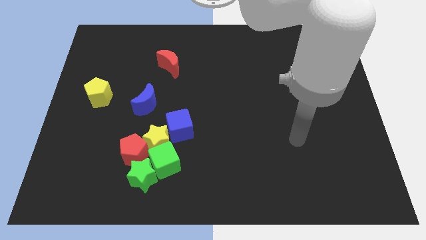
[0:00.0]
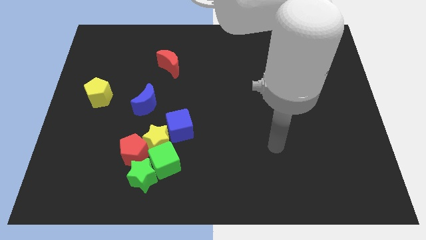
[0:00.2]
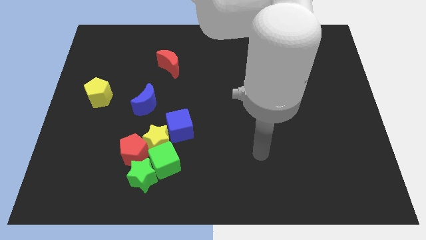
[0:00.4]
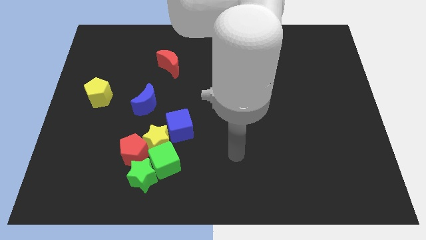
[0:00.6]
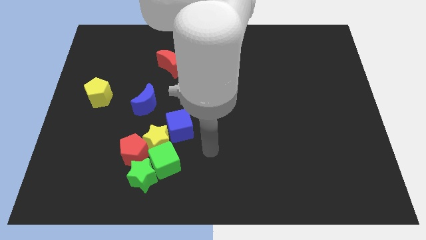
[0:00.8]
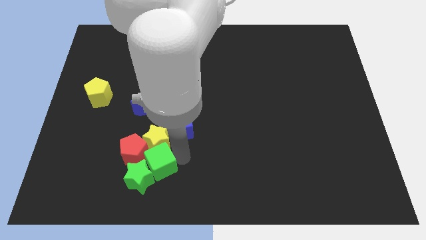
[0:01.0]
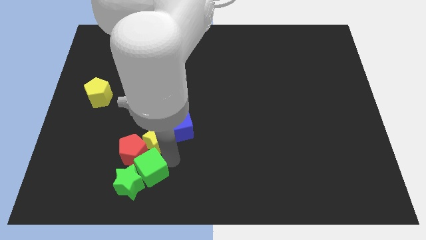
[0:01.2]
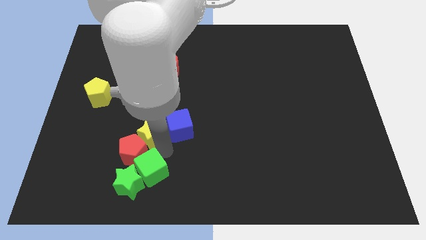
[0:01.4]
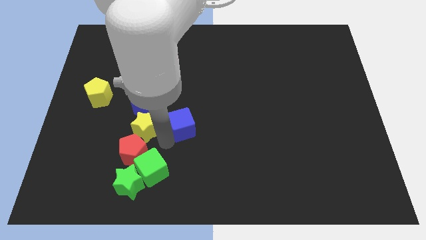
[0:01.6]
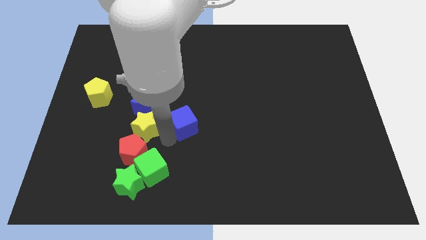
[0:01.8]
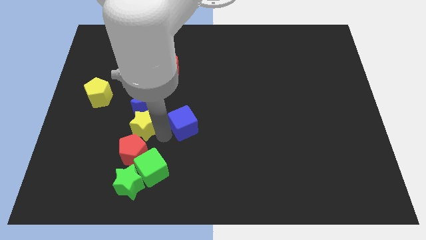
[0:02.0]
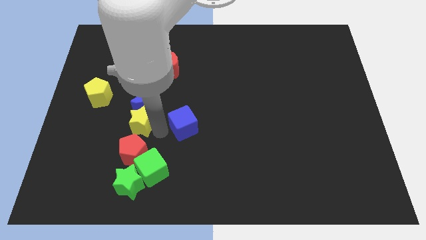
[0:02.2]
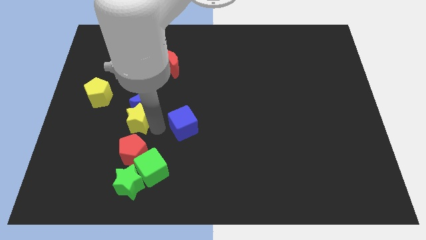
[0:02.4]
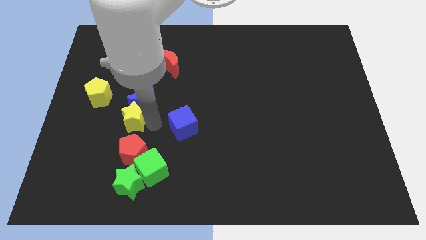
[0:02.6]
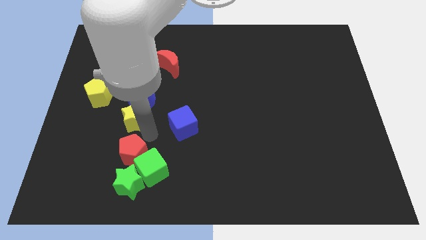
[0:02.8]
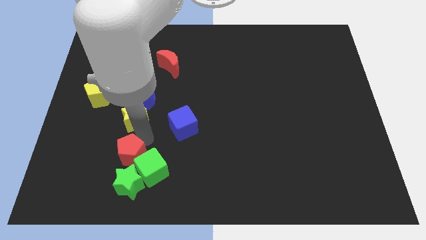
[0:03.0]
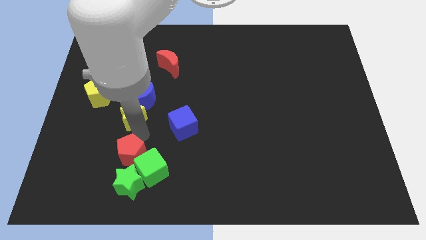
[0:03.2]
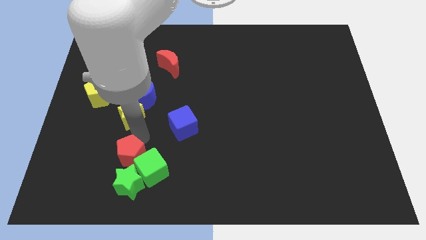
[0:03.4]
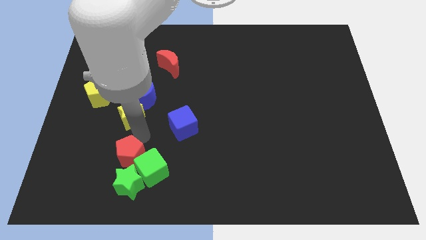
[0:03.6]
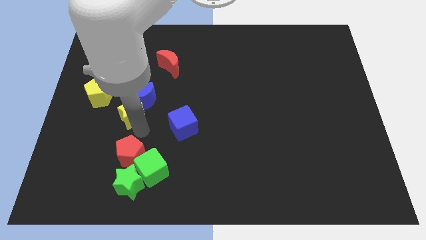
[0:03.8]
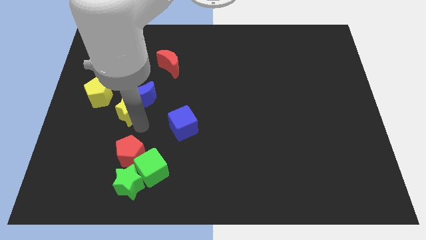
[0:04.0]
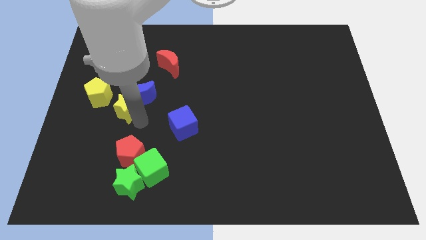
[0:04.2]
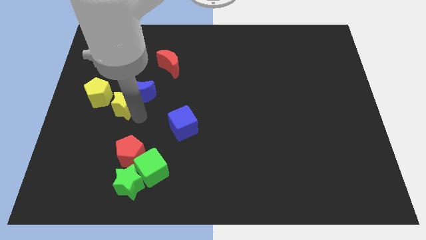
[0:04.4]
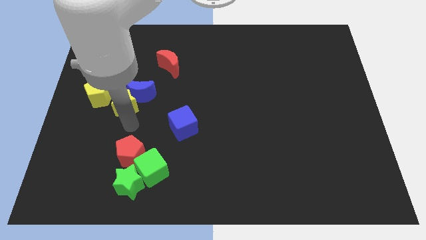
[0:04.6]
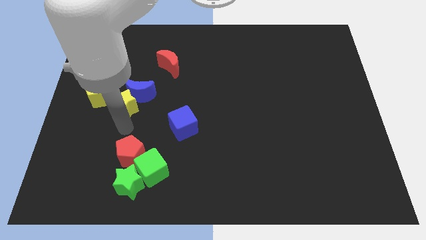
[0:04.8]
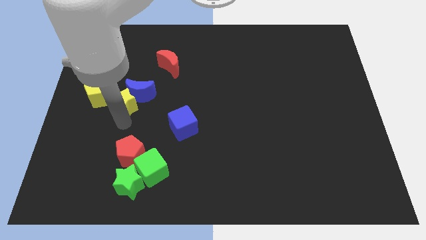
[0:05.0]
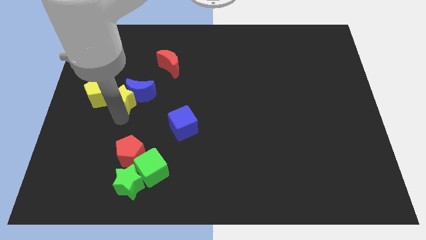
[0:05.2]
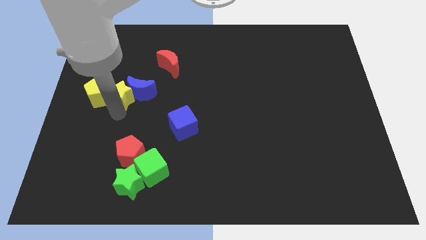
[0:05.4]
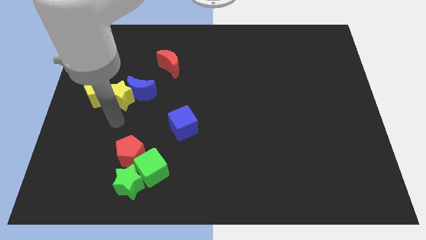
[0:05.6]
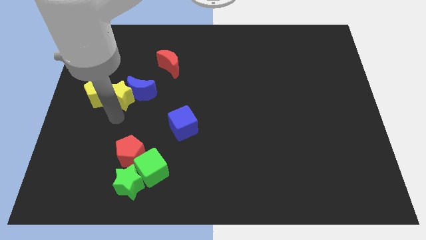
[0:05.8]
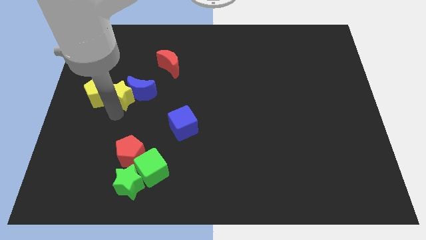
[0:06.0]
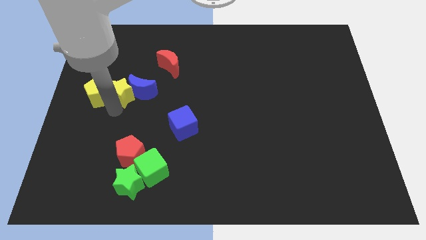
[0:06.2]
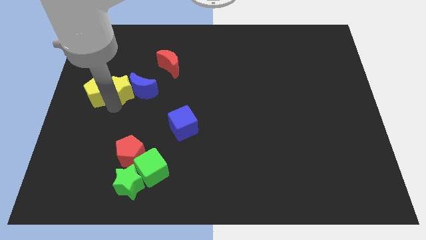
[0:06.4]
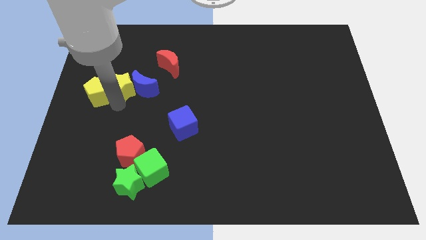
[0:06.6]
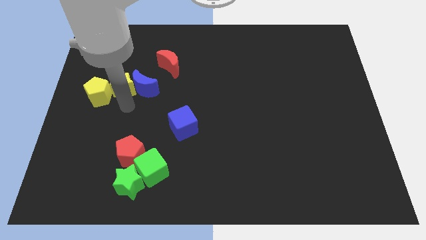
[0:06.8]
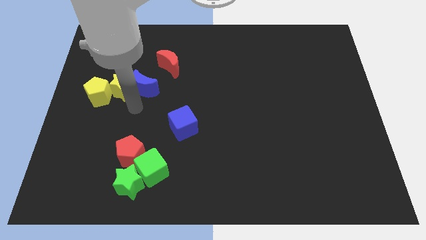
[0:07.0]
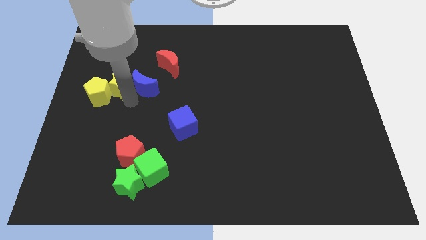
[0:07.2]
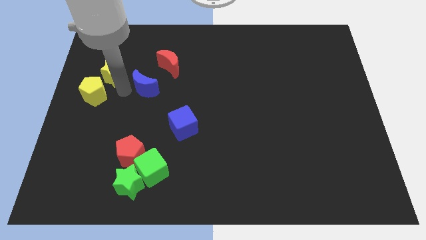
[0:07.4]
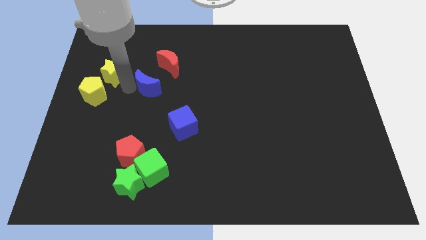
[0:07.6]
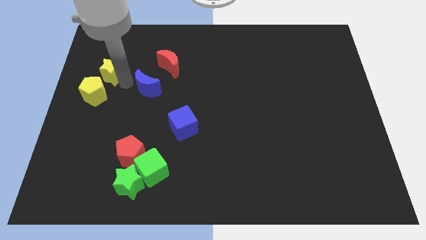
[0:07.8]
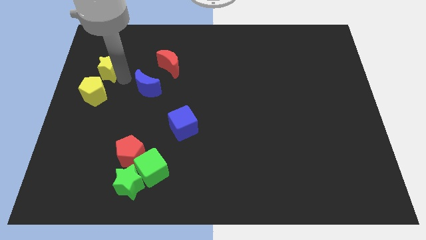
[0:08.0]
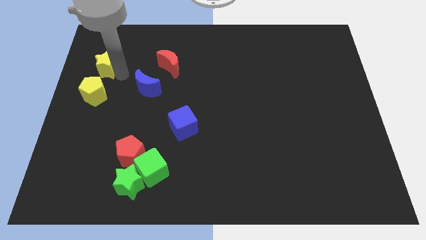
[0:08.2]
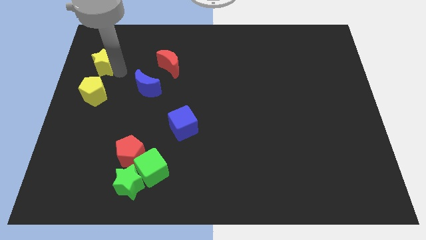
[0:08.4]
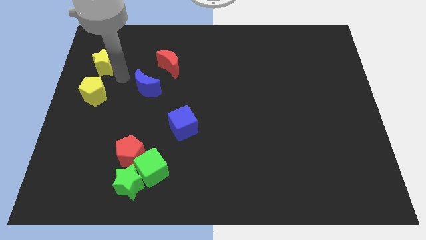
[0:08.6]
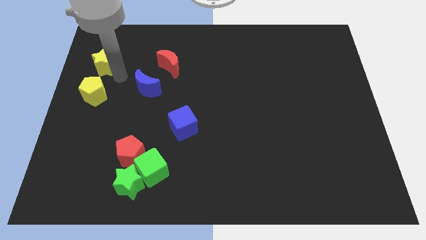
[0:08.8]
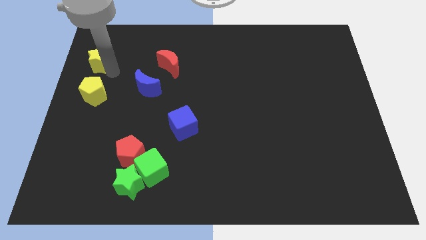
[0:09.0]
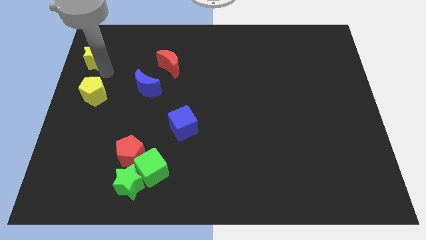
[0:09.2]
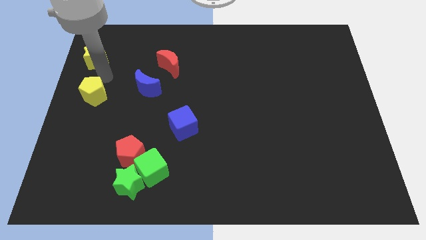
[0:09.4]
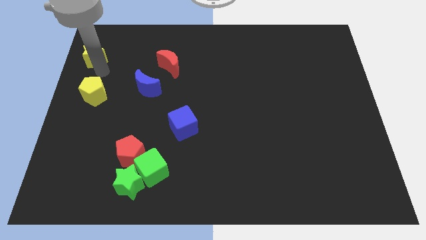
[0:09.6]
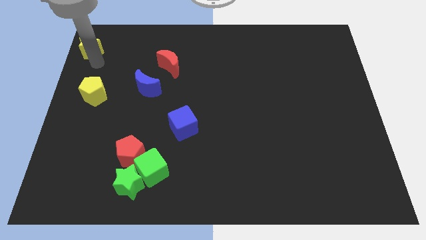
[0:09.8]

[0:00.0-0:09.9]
push the yellow star to the top left corner

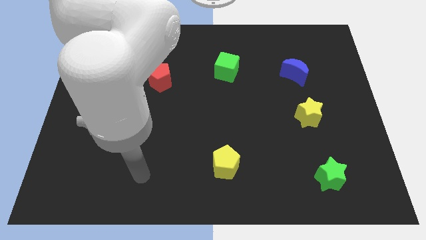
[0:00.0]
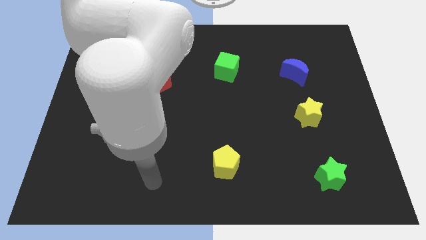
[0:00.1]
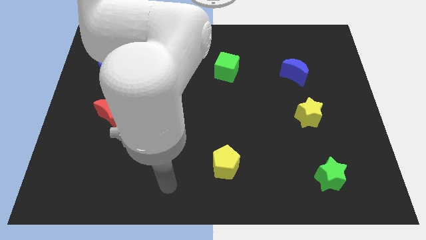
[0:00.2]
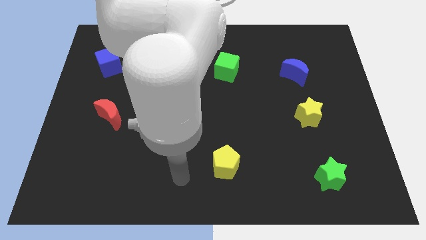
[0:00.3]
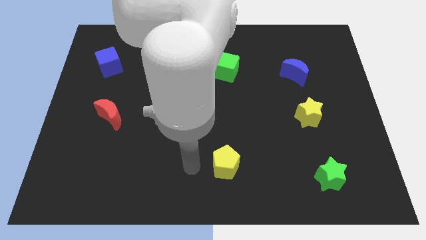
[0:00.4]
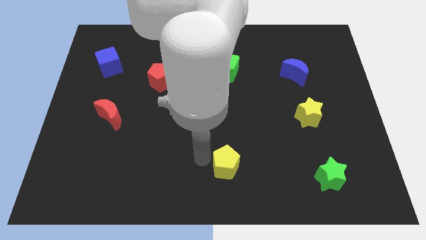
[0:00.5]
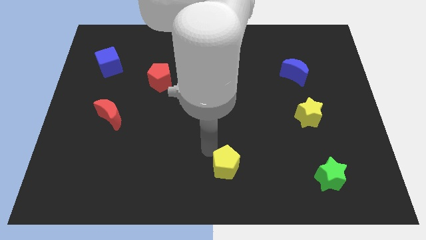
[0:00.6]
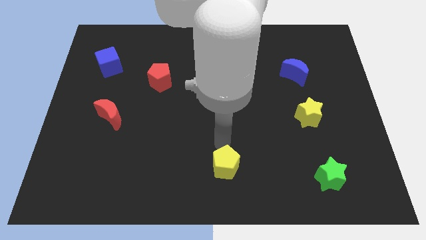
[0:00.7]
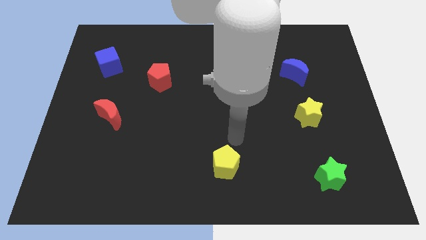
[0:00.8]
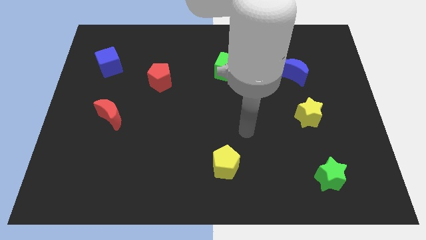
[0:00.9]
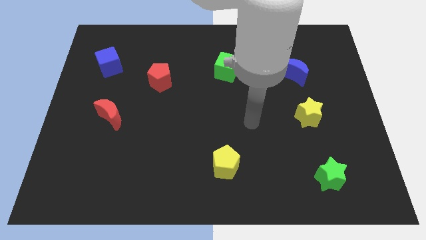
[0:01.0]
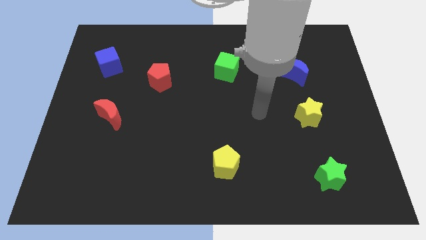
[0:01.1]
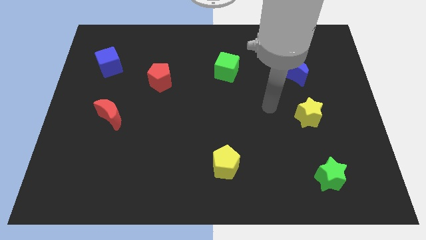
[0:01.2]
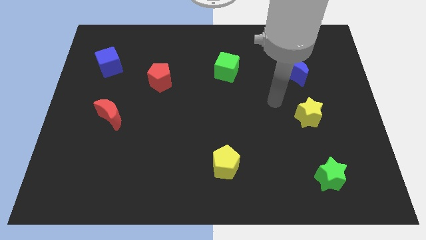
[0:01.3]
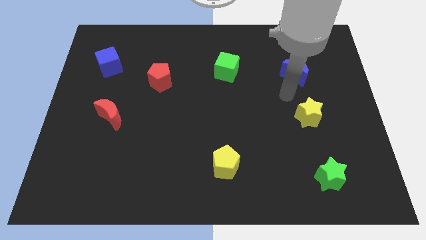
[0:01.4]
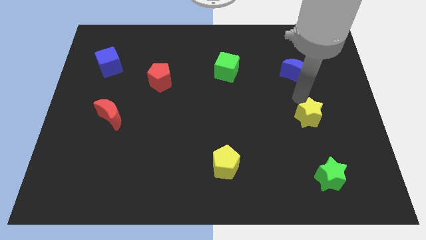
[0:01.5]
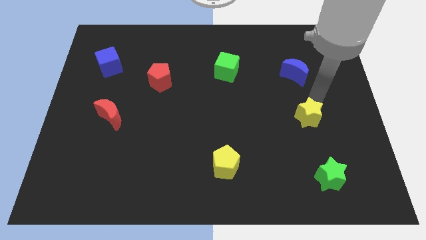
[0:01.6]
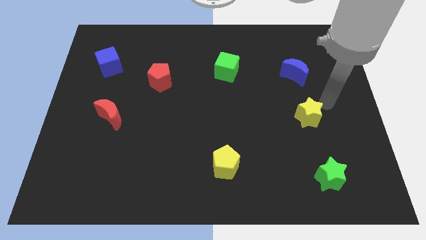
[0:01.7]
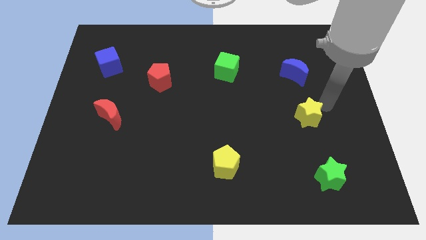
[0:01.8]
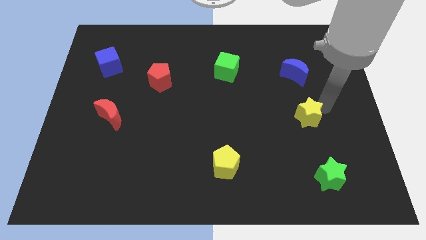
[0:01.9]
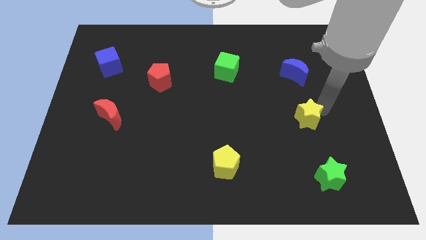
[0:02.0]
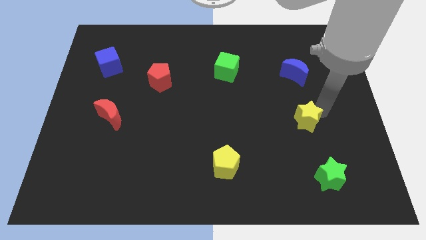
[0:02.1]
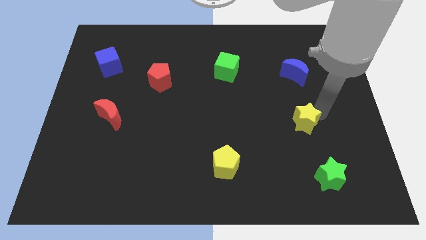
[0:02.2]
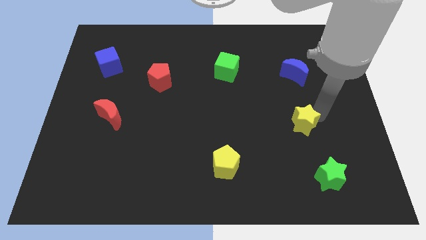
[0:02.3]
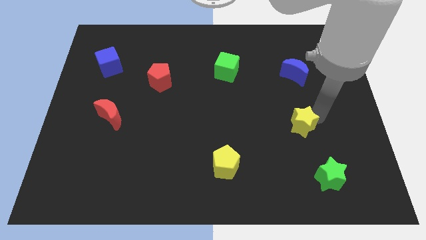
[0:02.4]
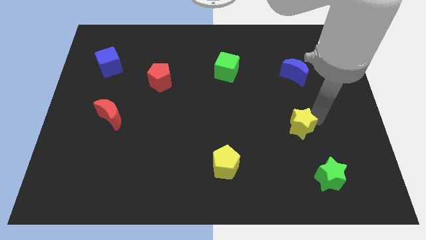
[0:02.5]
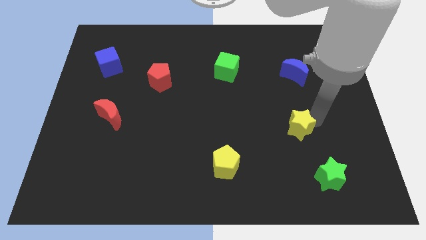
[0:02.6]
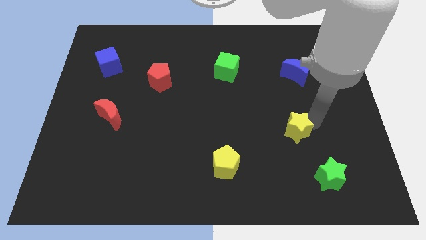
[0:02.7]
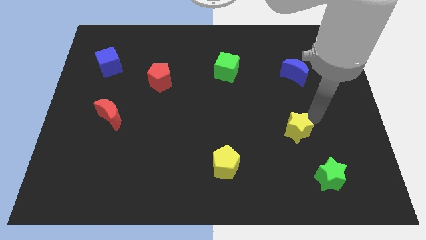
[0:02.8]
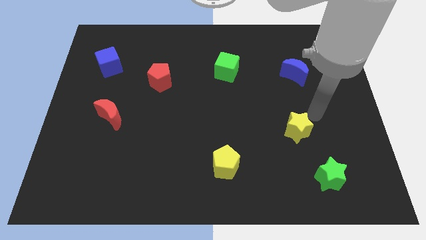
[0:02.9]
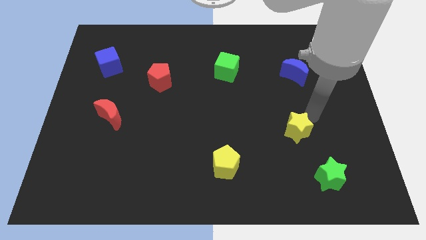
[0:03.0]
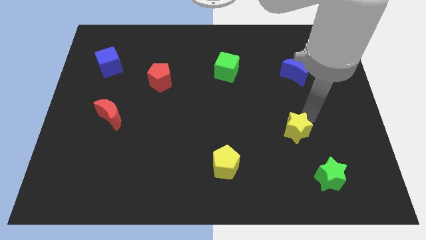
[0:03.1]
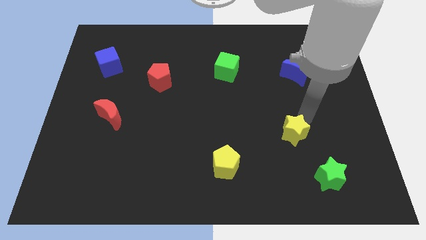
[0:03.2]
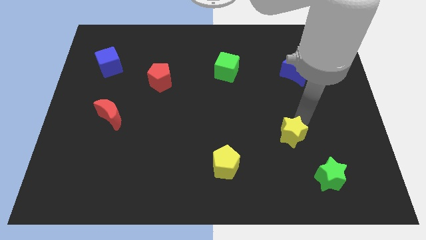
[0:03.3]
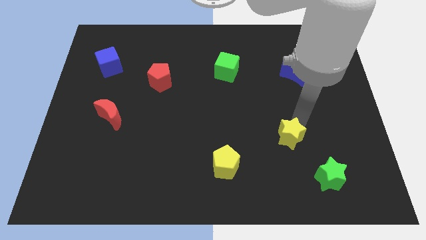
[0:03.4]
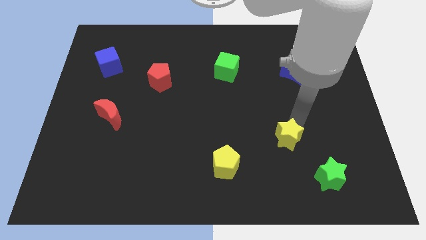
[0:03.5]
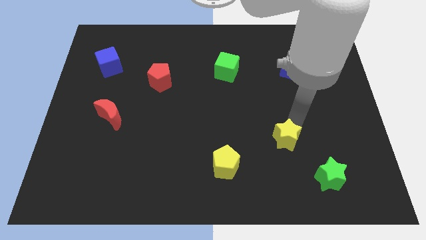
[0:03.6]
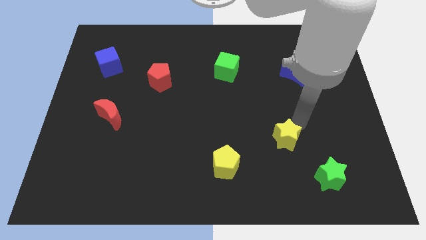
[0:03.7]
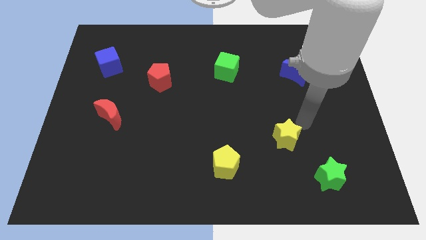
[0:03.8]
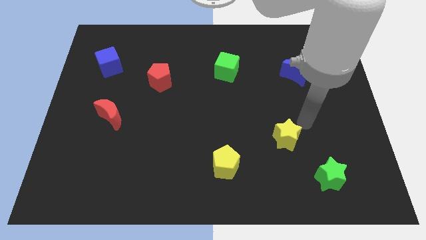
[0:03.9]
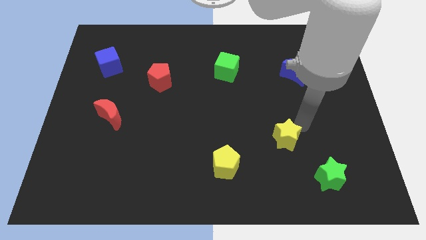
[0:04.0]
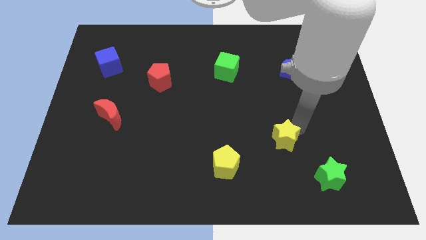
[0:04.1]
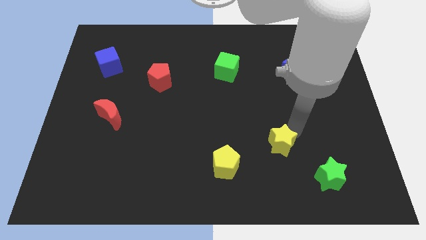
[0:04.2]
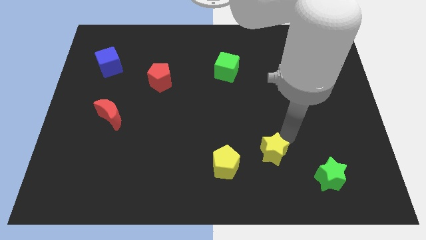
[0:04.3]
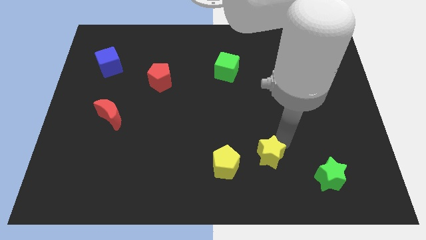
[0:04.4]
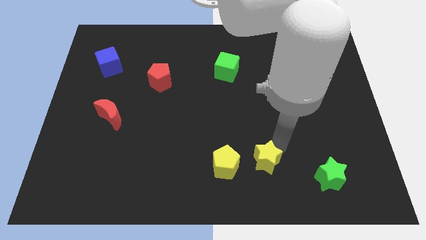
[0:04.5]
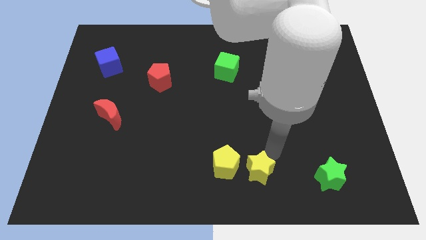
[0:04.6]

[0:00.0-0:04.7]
put the yellow star to the bottom side
